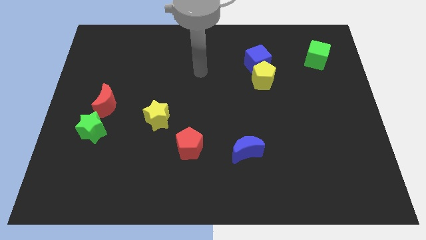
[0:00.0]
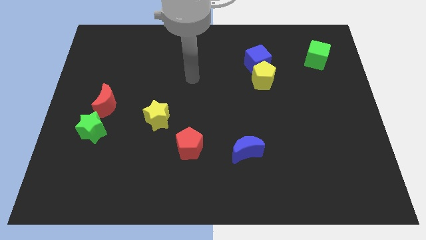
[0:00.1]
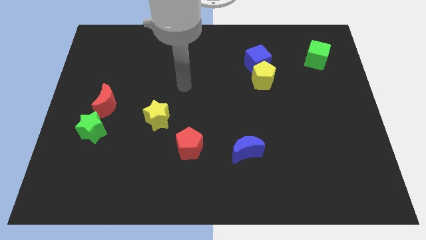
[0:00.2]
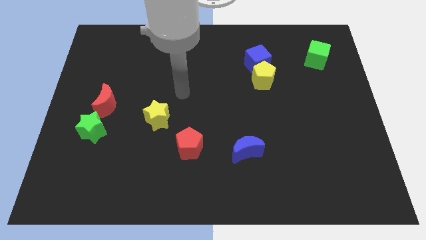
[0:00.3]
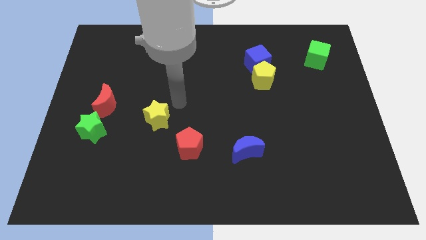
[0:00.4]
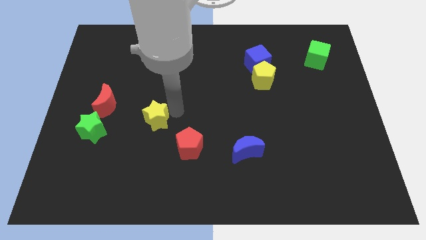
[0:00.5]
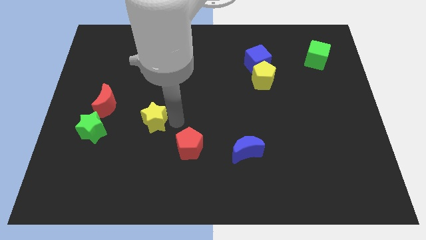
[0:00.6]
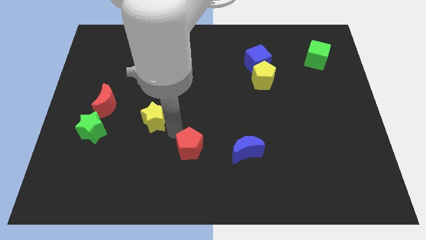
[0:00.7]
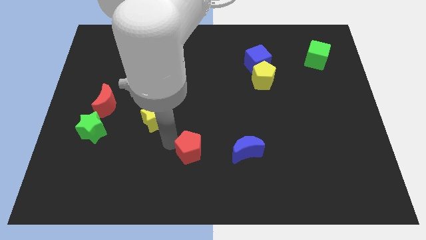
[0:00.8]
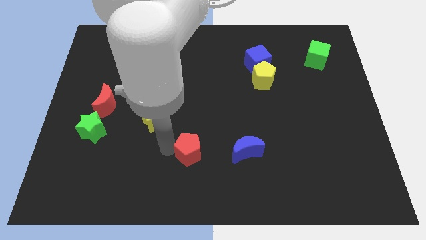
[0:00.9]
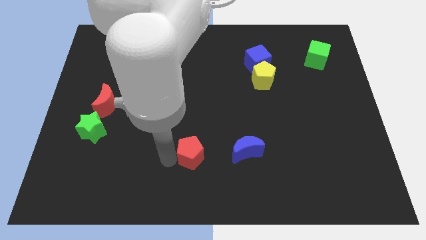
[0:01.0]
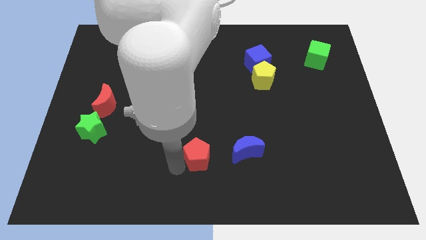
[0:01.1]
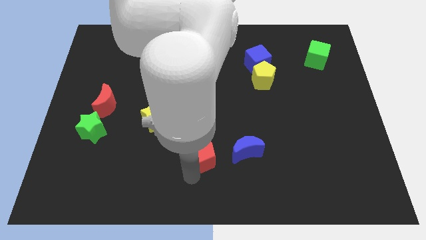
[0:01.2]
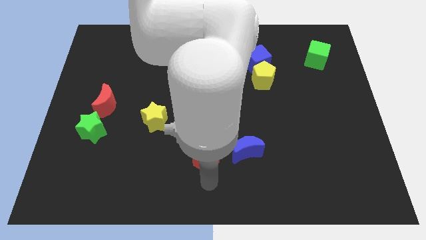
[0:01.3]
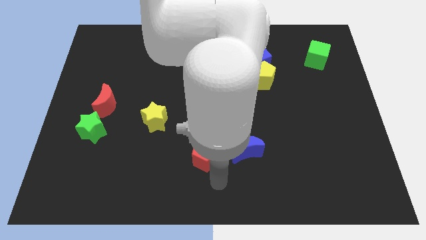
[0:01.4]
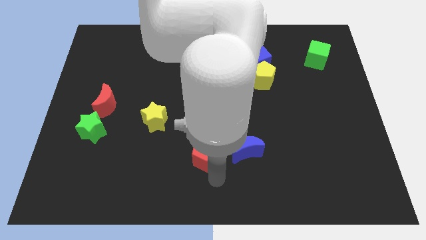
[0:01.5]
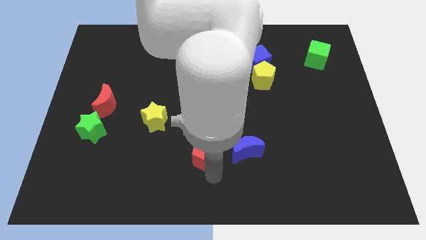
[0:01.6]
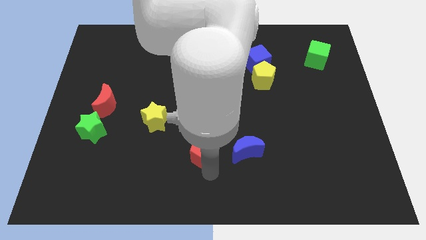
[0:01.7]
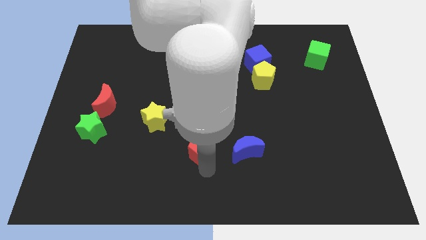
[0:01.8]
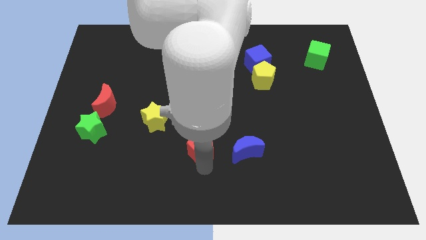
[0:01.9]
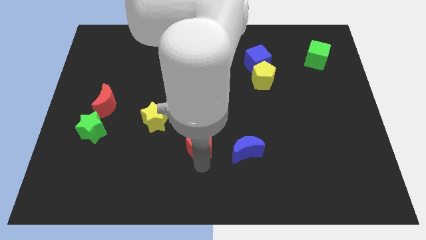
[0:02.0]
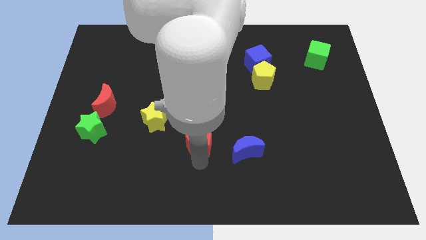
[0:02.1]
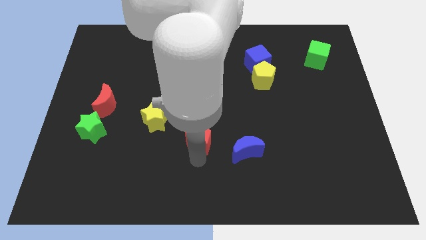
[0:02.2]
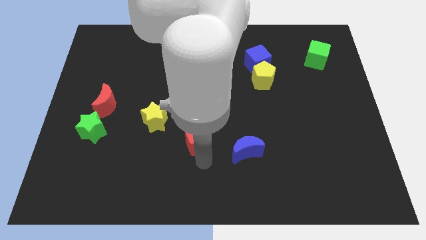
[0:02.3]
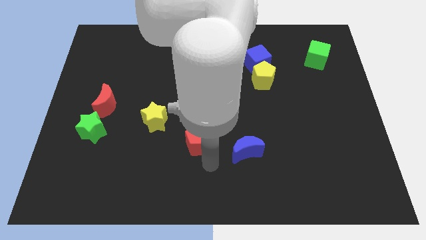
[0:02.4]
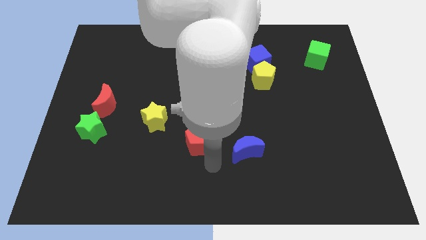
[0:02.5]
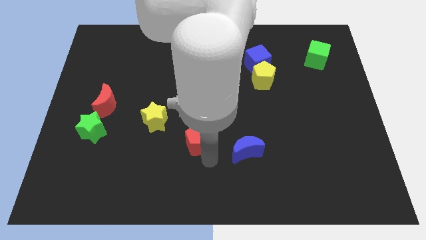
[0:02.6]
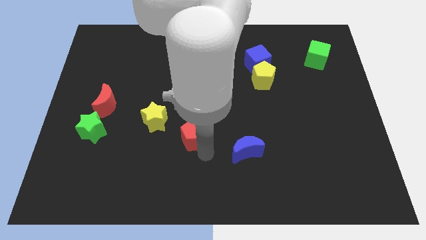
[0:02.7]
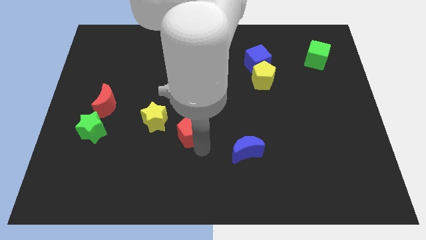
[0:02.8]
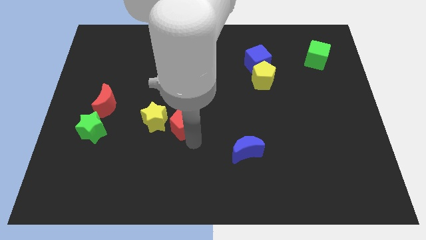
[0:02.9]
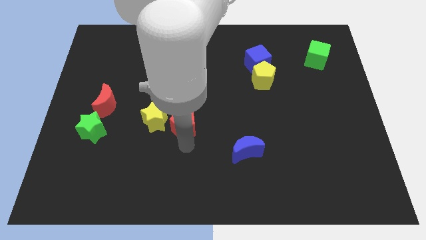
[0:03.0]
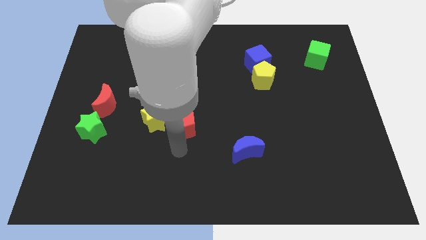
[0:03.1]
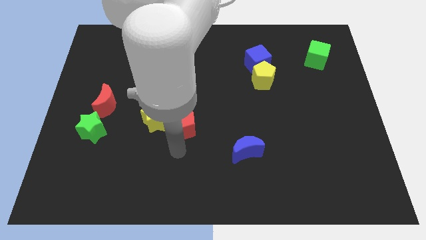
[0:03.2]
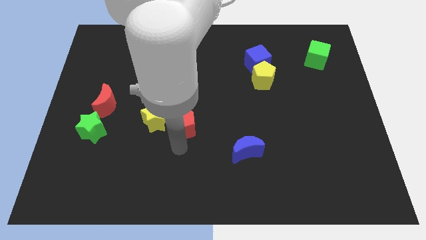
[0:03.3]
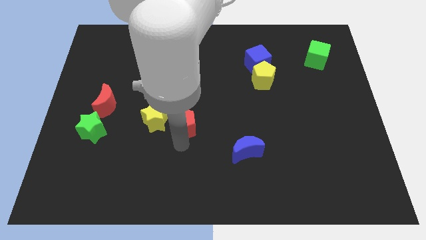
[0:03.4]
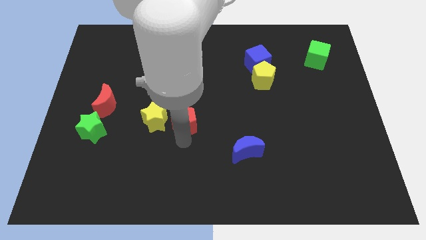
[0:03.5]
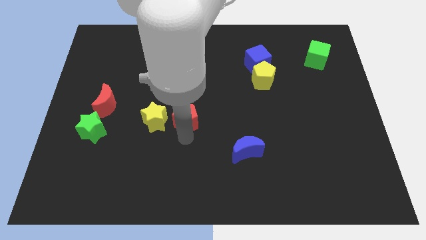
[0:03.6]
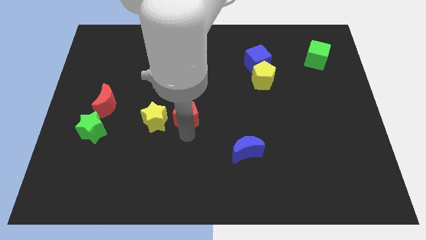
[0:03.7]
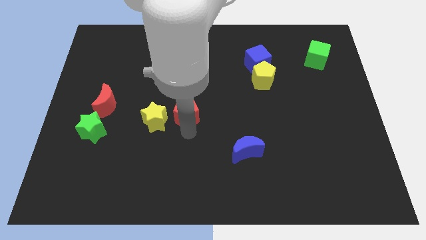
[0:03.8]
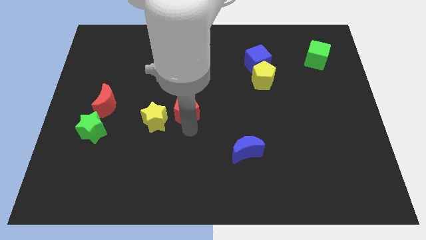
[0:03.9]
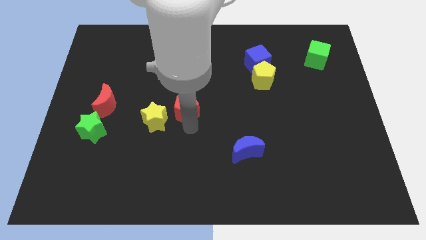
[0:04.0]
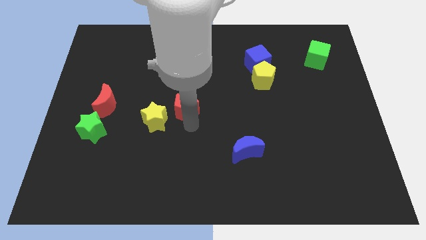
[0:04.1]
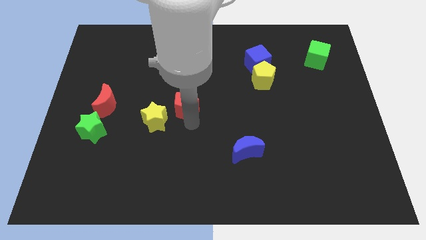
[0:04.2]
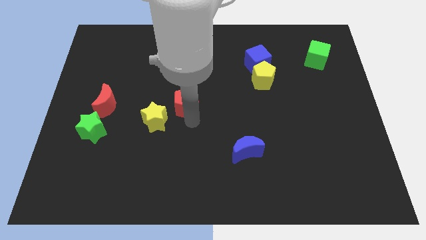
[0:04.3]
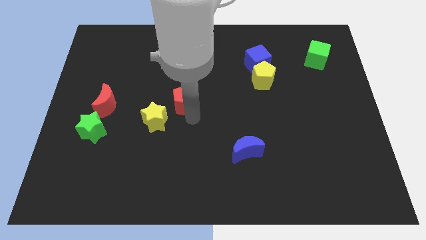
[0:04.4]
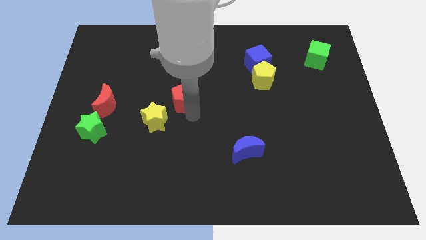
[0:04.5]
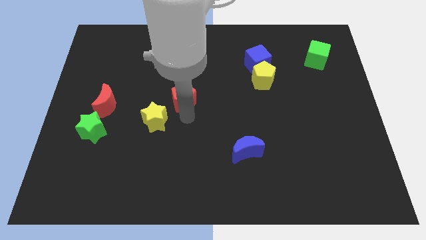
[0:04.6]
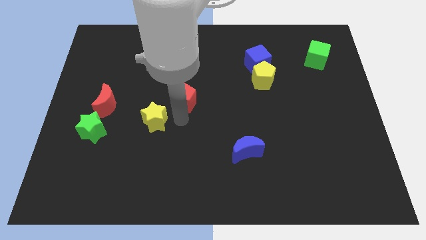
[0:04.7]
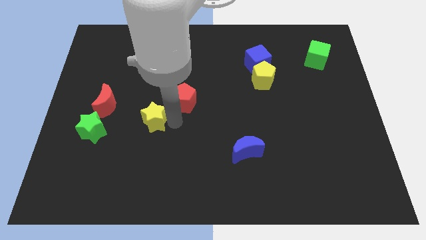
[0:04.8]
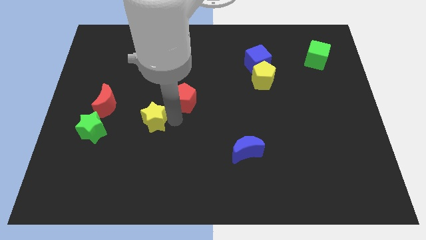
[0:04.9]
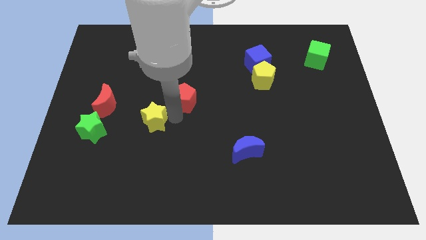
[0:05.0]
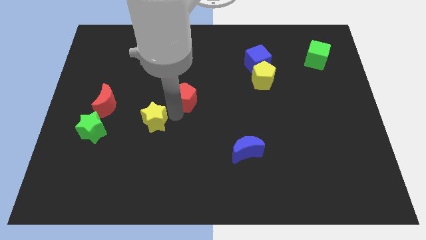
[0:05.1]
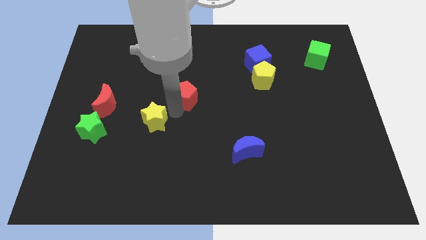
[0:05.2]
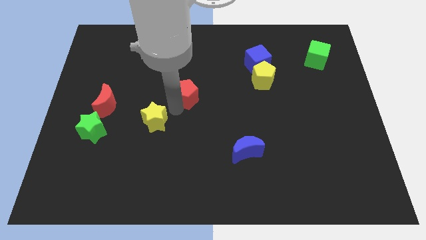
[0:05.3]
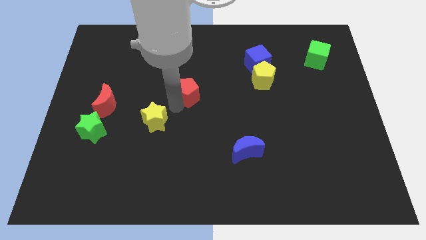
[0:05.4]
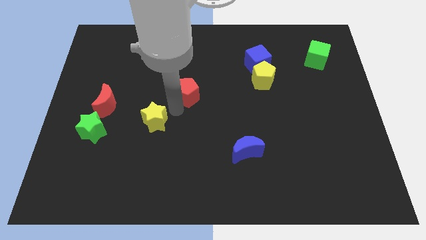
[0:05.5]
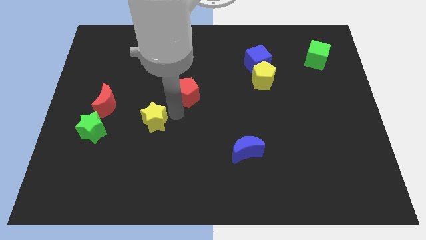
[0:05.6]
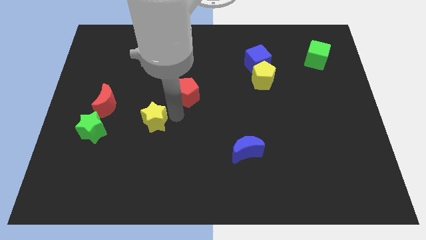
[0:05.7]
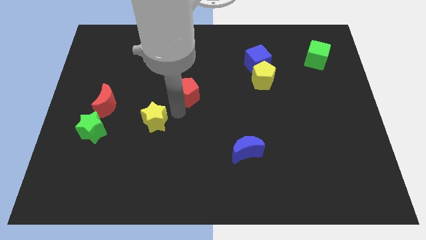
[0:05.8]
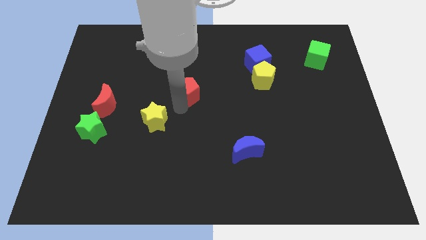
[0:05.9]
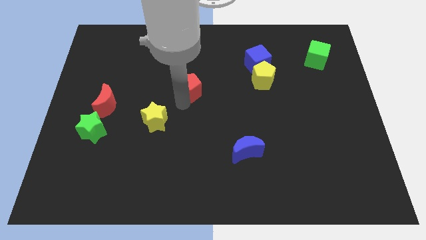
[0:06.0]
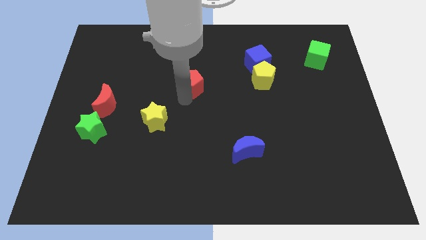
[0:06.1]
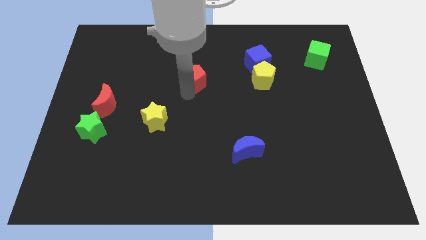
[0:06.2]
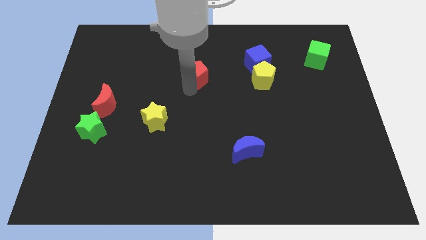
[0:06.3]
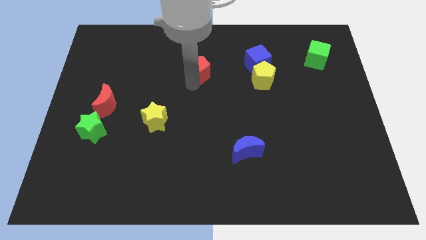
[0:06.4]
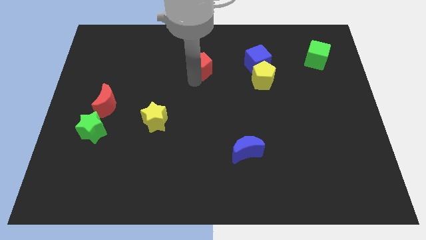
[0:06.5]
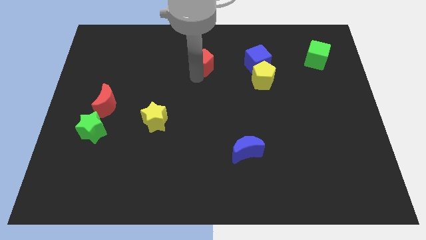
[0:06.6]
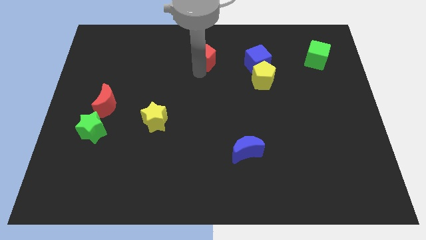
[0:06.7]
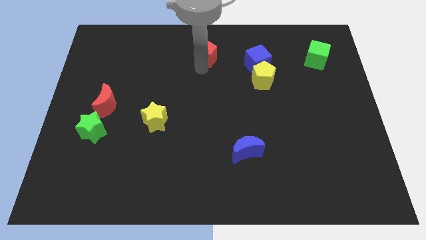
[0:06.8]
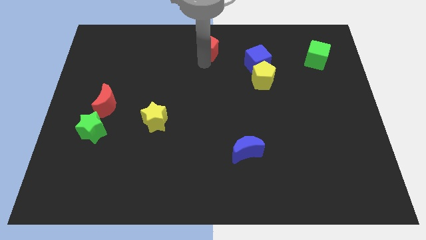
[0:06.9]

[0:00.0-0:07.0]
move the red pentagon to the towards your base
